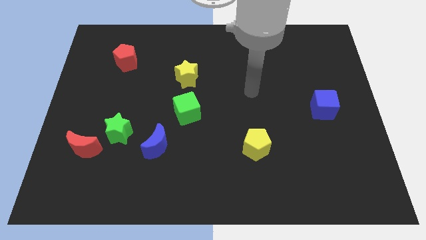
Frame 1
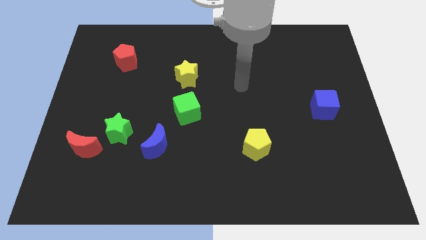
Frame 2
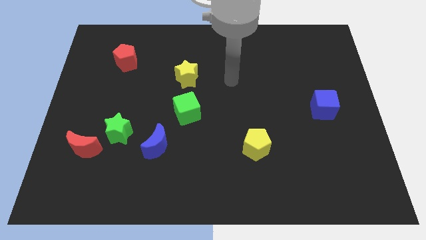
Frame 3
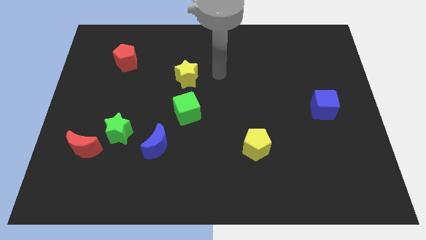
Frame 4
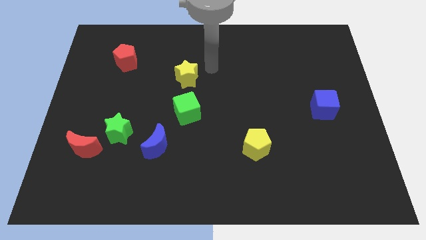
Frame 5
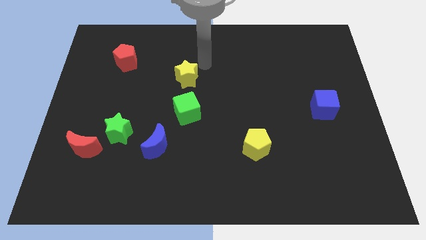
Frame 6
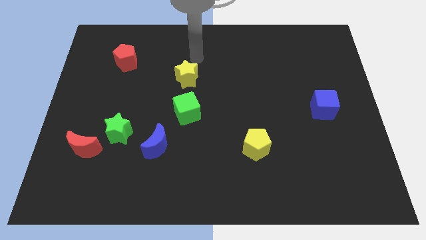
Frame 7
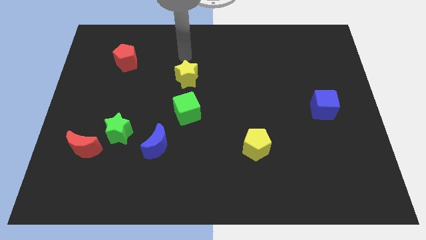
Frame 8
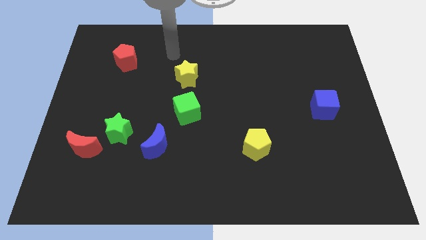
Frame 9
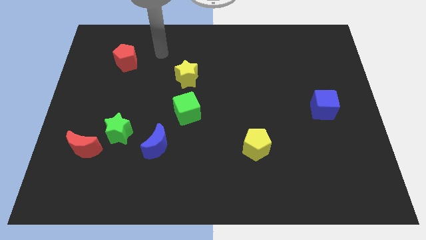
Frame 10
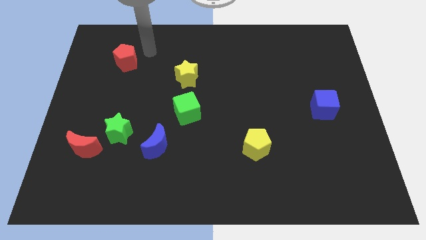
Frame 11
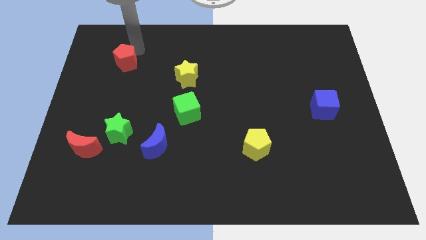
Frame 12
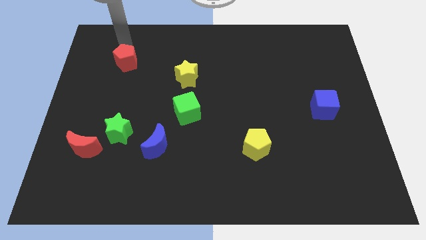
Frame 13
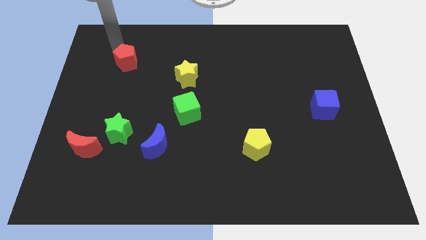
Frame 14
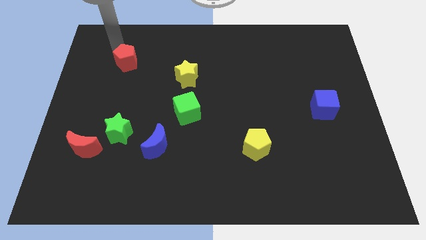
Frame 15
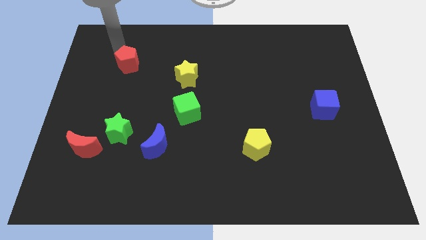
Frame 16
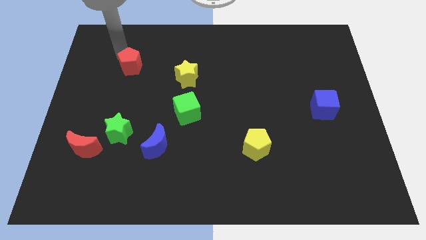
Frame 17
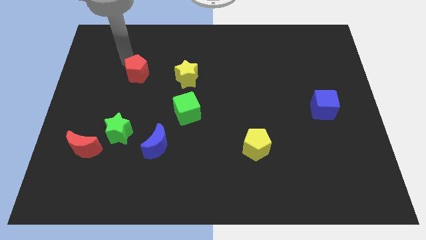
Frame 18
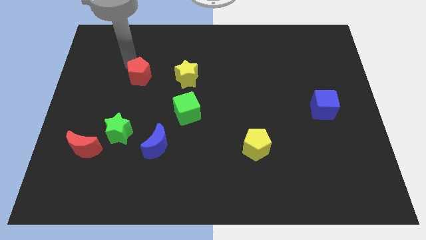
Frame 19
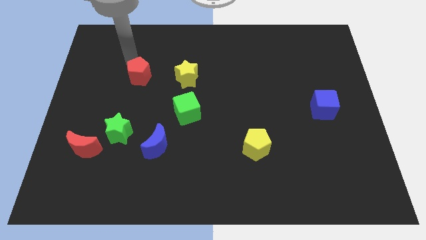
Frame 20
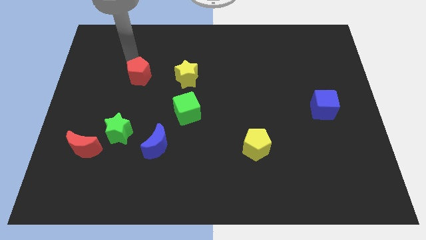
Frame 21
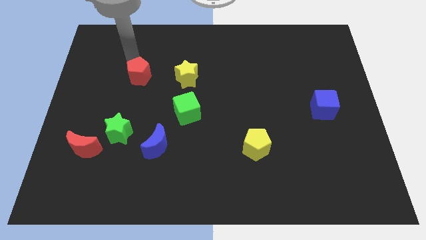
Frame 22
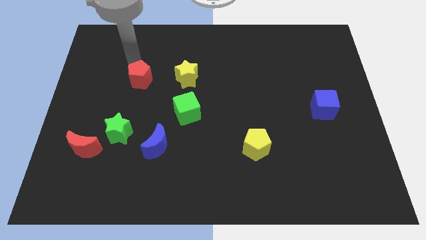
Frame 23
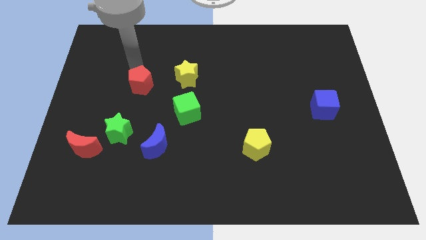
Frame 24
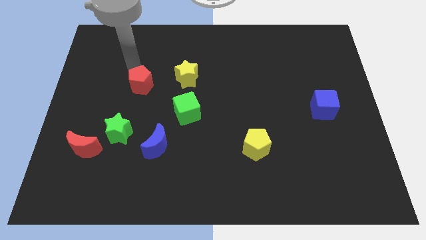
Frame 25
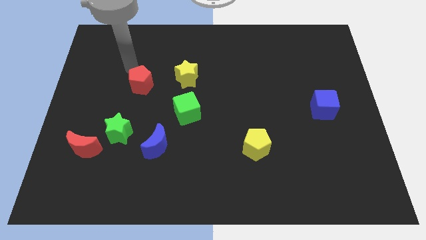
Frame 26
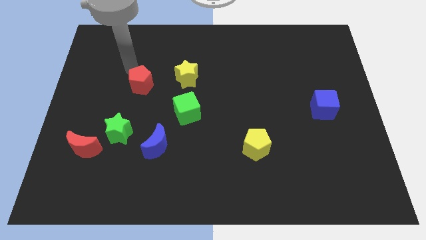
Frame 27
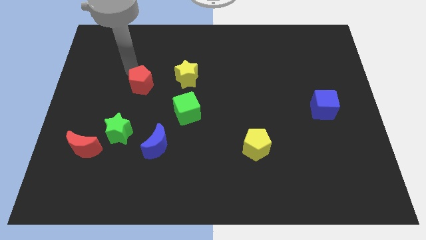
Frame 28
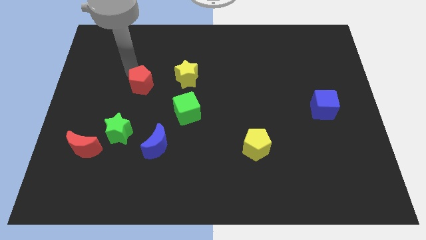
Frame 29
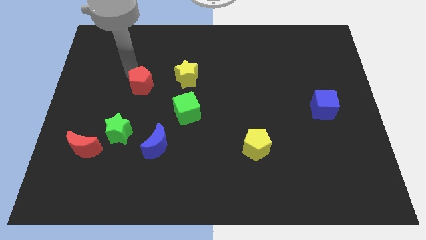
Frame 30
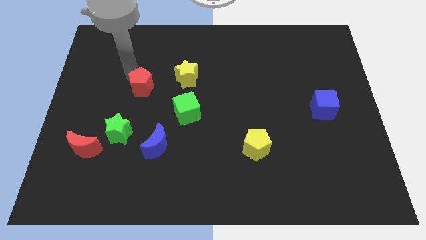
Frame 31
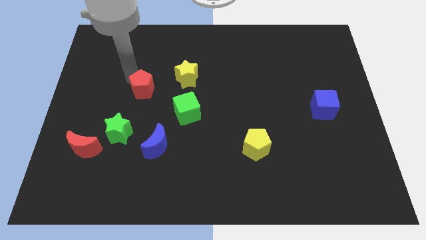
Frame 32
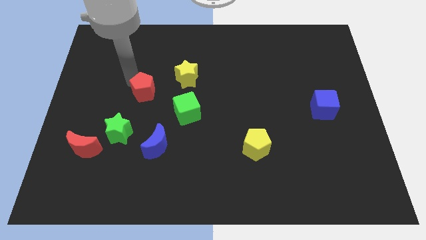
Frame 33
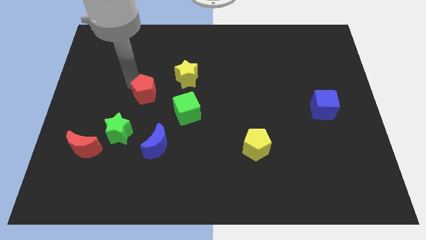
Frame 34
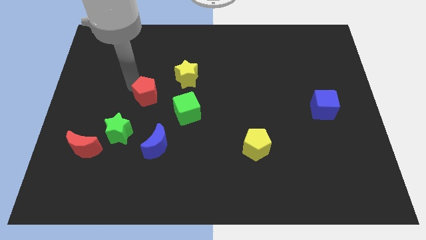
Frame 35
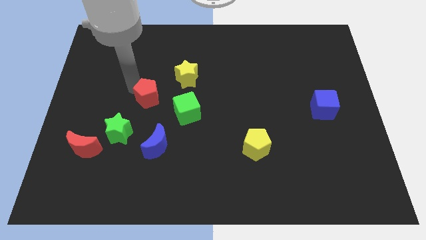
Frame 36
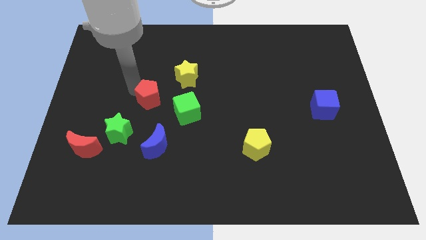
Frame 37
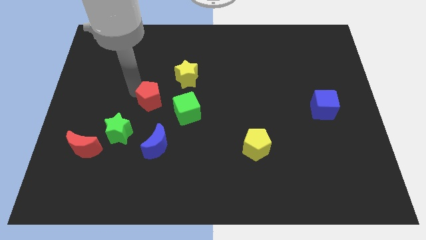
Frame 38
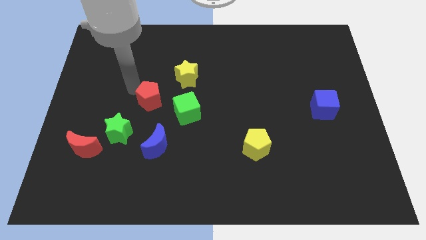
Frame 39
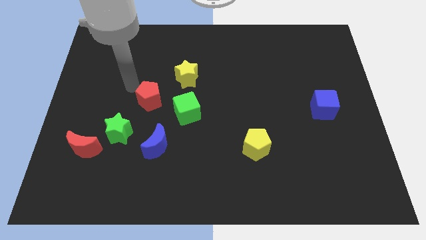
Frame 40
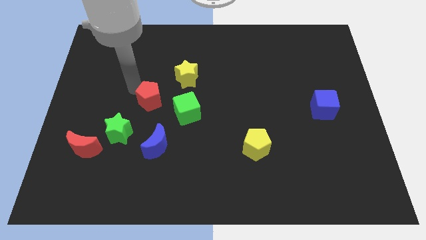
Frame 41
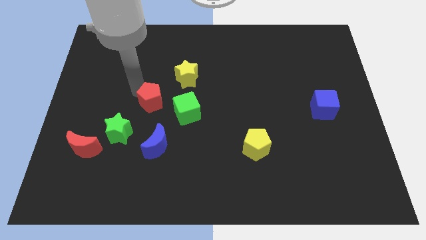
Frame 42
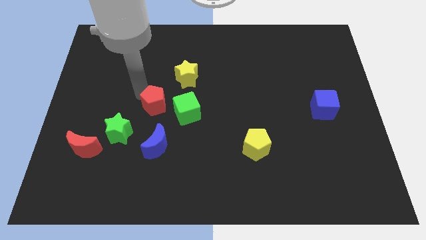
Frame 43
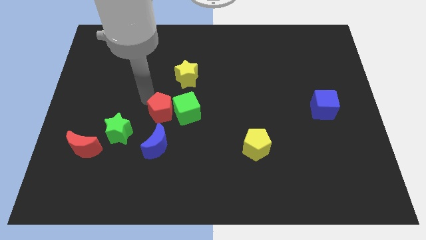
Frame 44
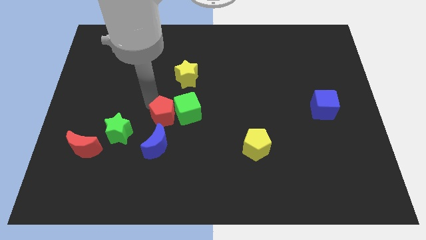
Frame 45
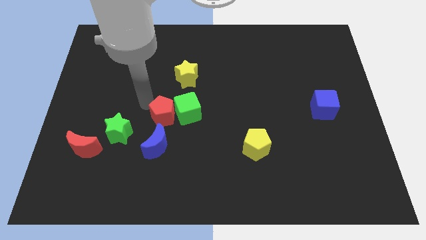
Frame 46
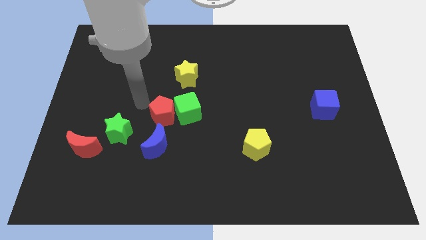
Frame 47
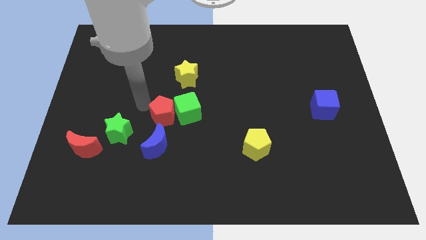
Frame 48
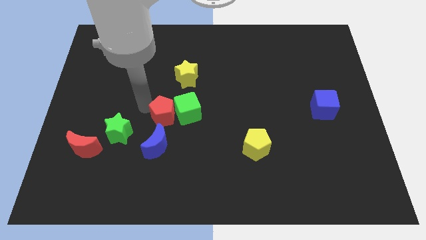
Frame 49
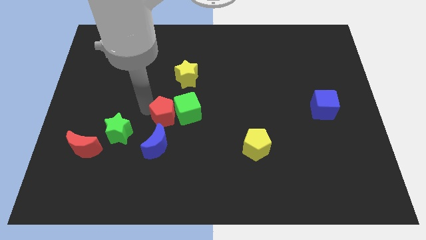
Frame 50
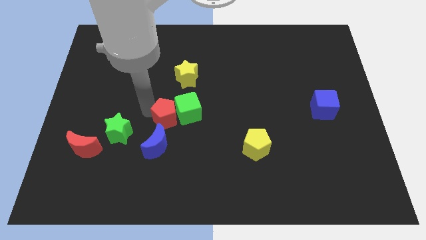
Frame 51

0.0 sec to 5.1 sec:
put the red pentagon to the top right side of the blue moon

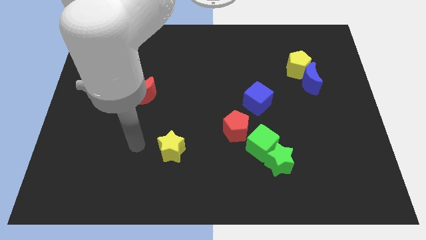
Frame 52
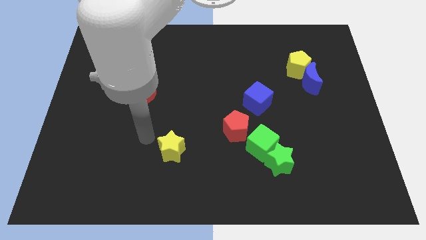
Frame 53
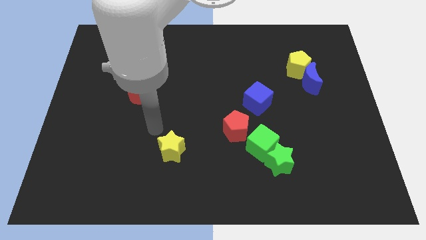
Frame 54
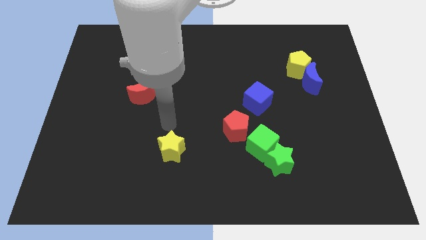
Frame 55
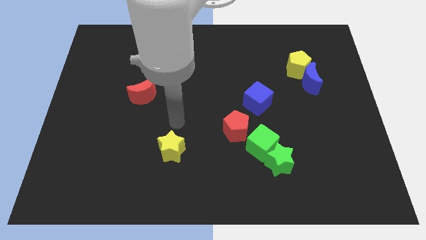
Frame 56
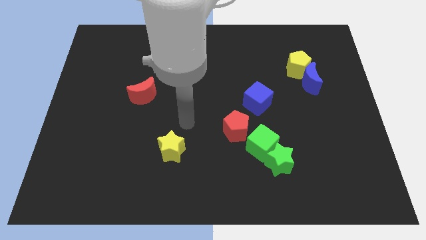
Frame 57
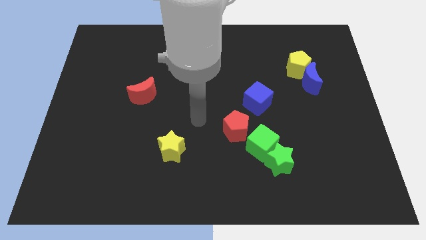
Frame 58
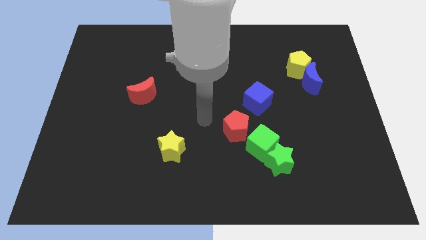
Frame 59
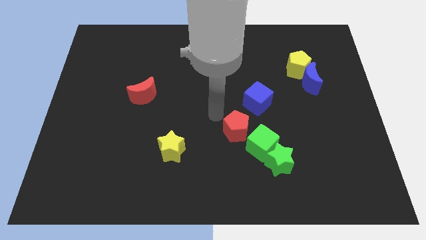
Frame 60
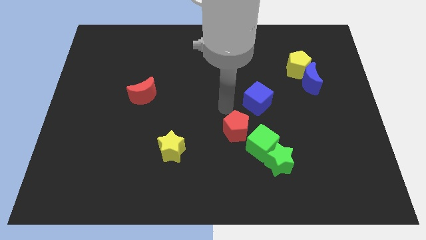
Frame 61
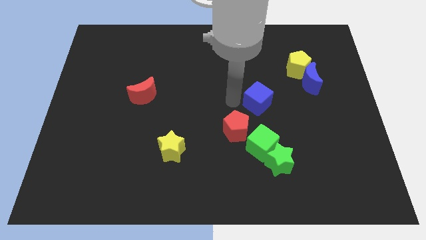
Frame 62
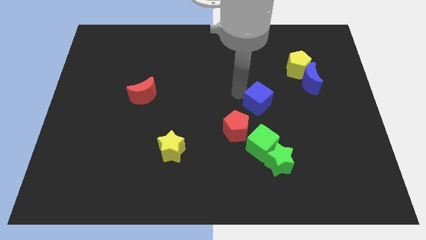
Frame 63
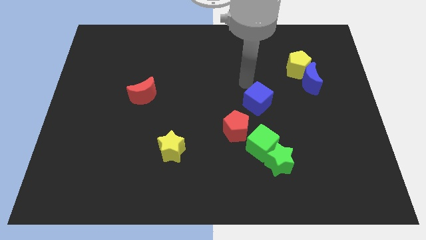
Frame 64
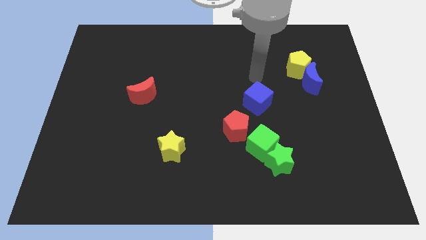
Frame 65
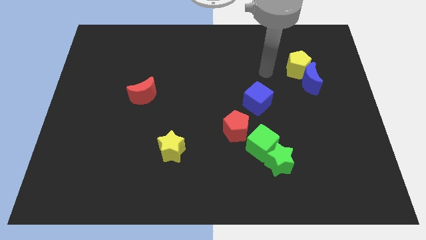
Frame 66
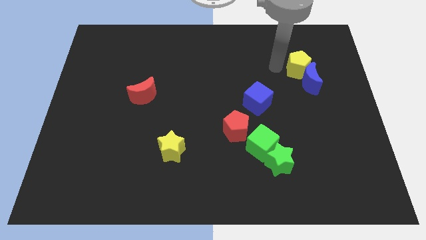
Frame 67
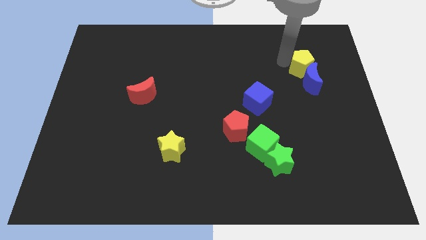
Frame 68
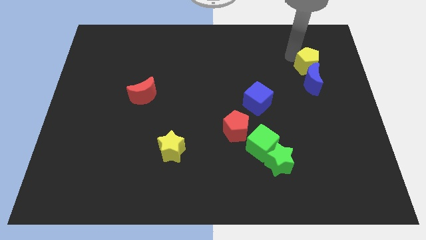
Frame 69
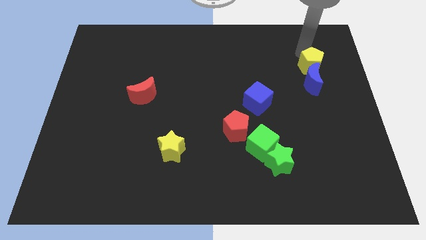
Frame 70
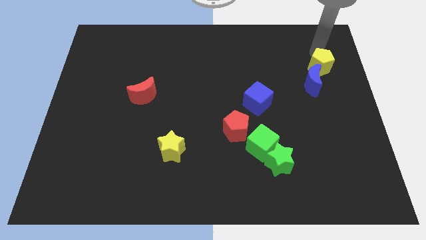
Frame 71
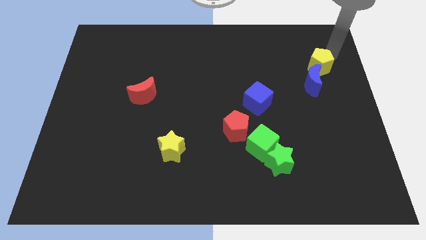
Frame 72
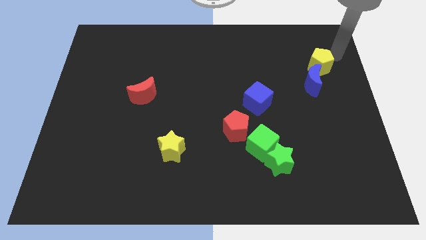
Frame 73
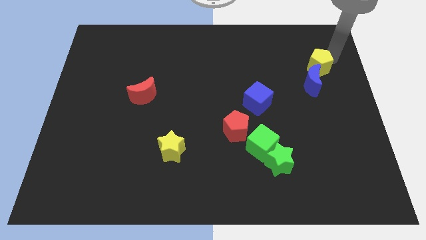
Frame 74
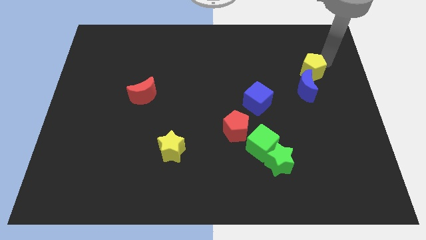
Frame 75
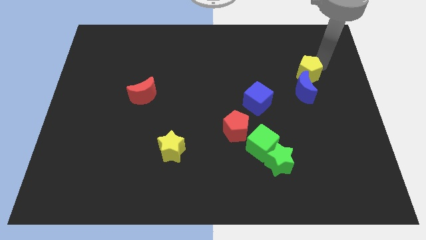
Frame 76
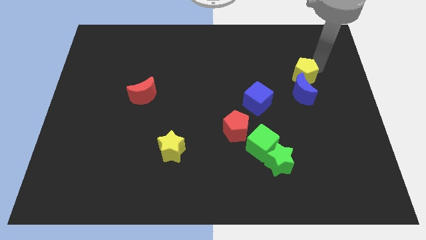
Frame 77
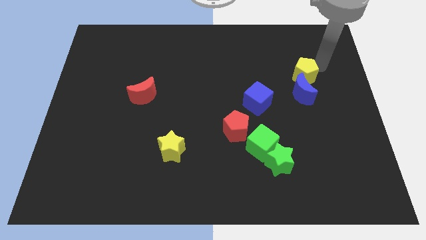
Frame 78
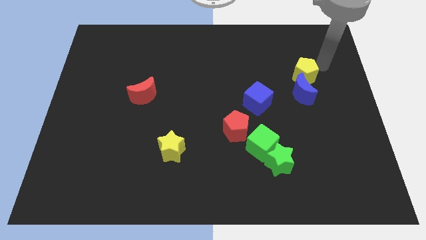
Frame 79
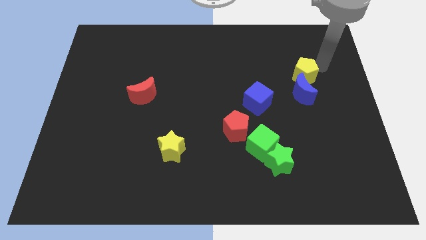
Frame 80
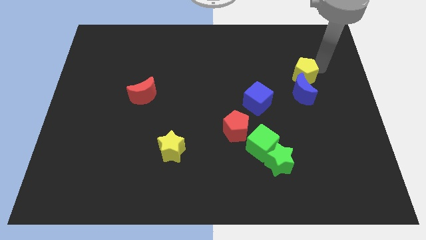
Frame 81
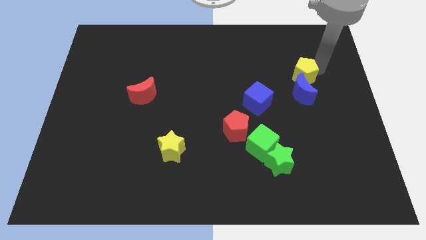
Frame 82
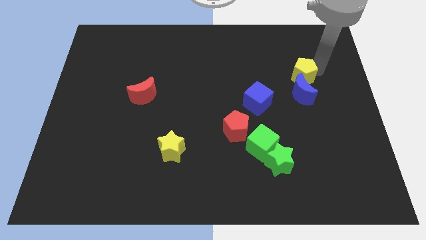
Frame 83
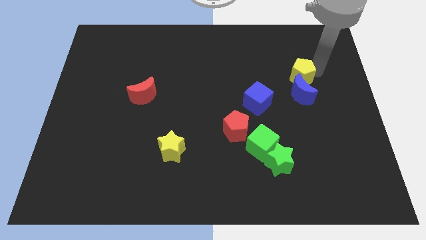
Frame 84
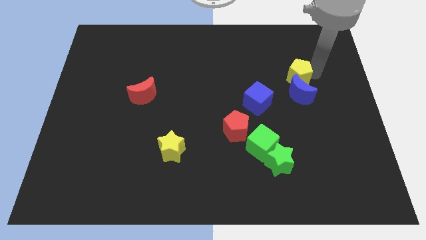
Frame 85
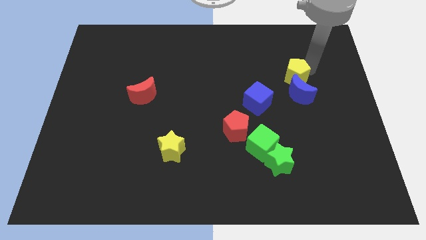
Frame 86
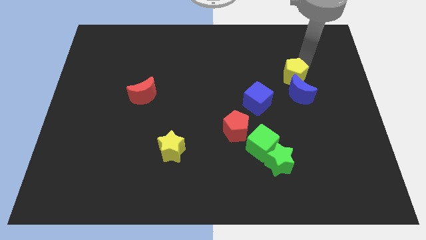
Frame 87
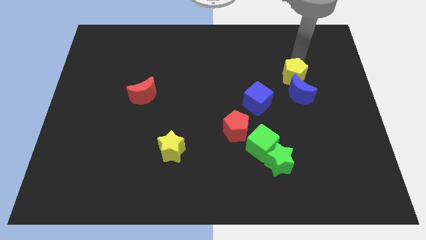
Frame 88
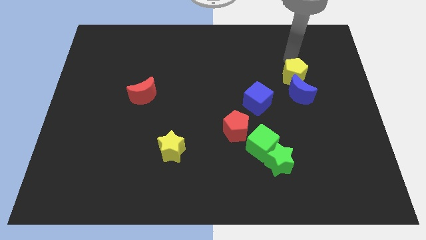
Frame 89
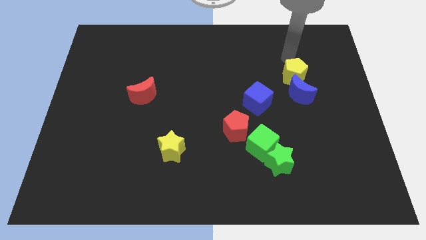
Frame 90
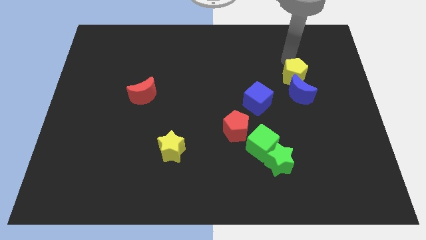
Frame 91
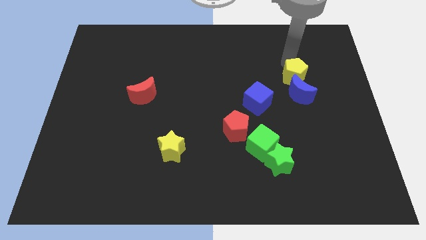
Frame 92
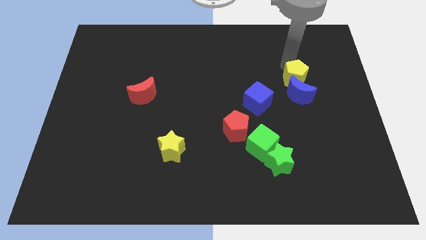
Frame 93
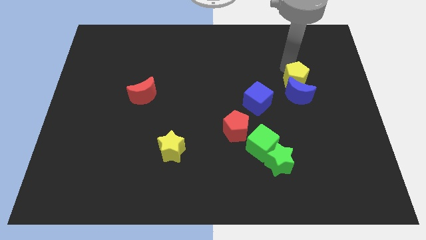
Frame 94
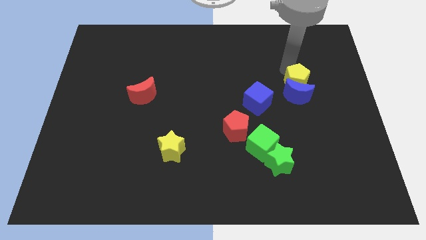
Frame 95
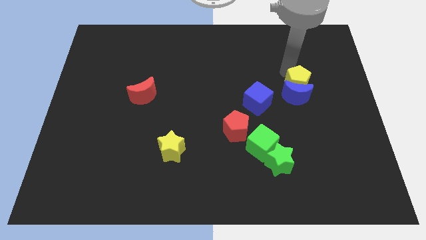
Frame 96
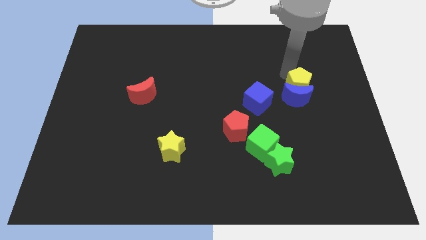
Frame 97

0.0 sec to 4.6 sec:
slide the yellow pentagon to the right side of the blue cube
